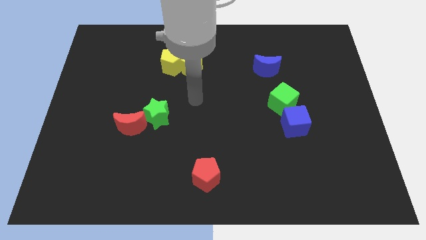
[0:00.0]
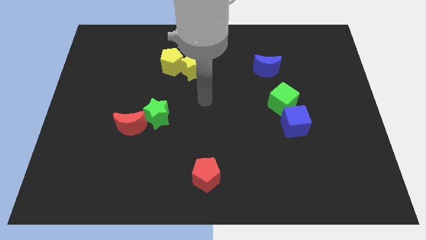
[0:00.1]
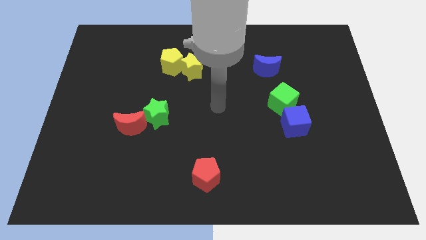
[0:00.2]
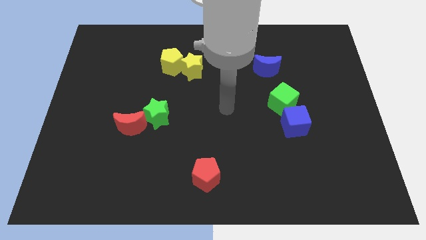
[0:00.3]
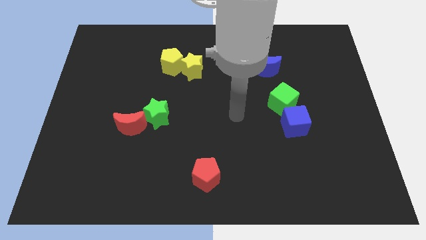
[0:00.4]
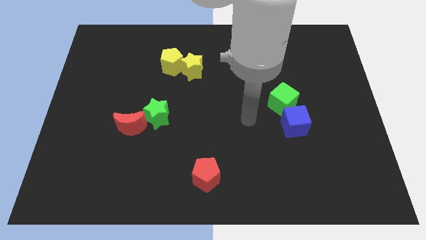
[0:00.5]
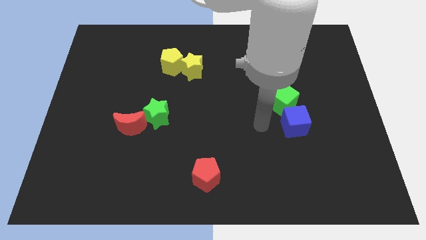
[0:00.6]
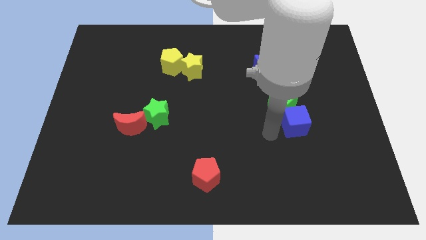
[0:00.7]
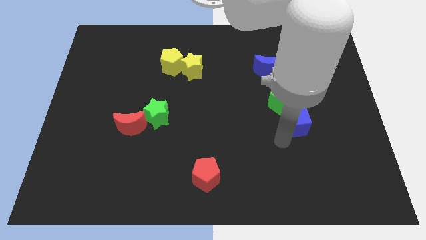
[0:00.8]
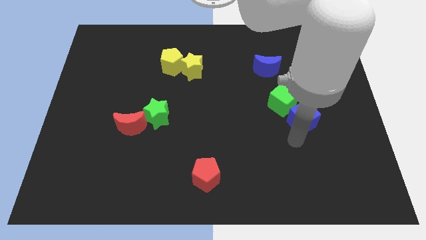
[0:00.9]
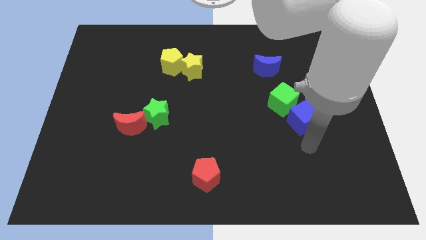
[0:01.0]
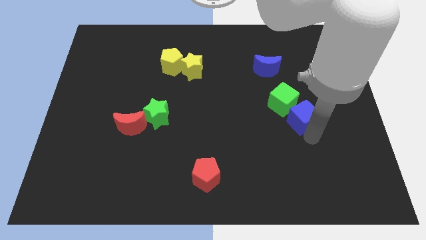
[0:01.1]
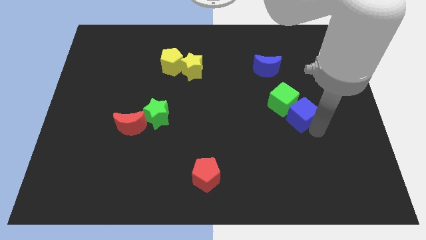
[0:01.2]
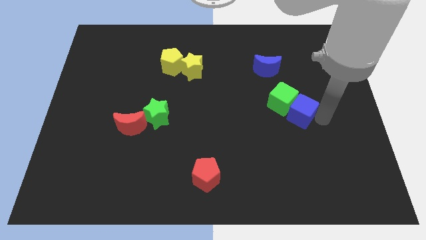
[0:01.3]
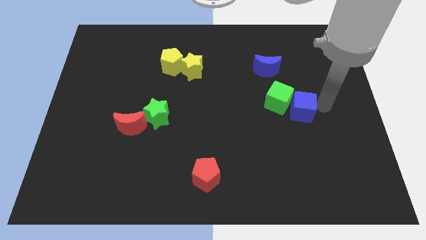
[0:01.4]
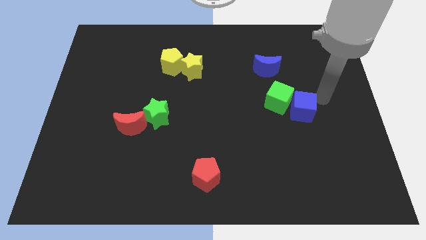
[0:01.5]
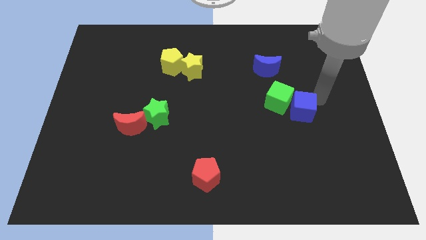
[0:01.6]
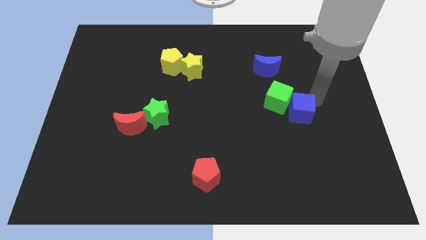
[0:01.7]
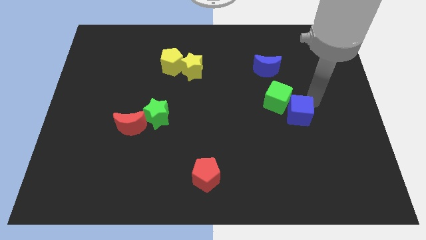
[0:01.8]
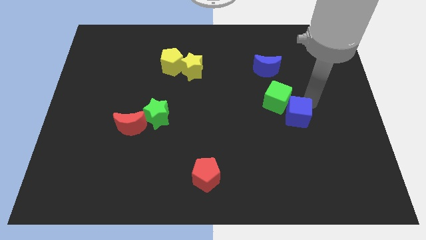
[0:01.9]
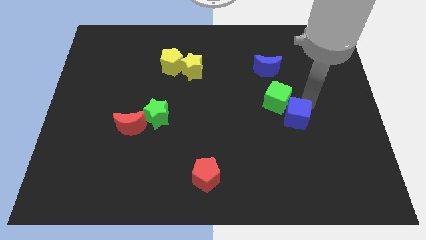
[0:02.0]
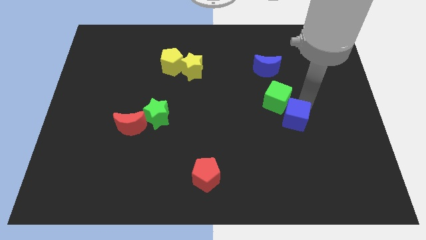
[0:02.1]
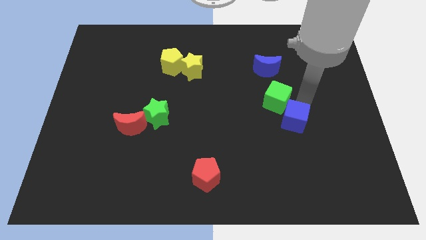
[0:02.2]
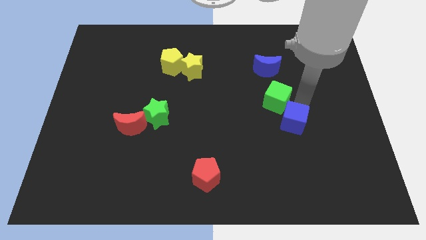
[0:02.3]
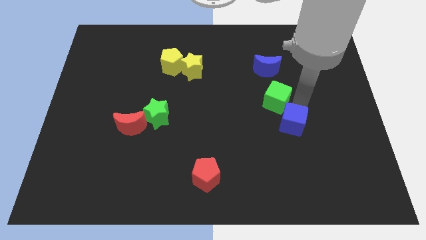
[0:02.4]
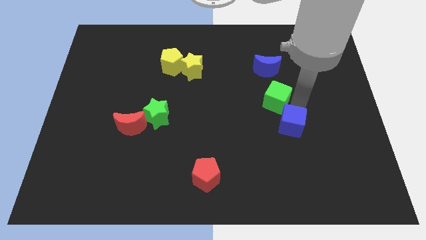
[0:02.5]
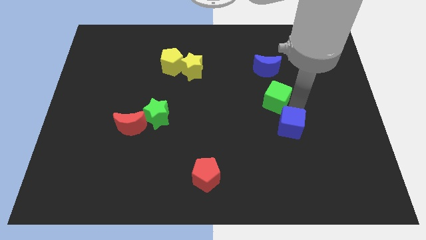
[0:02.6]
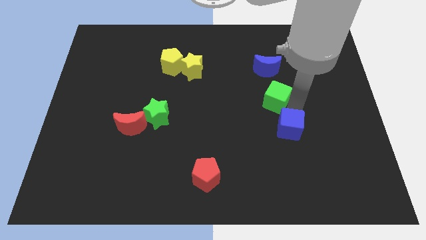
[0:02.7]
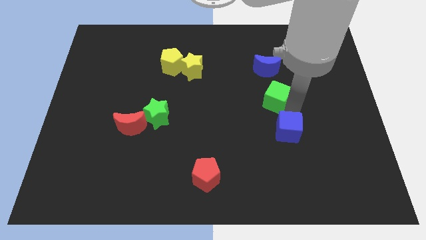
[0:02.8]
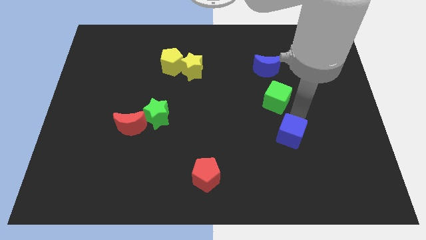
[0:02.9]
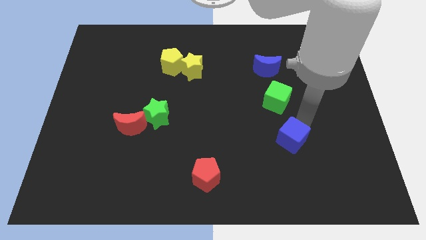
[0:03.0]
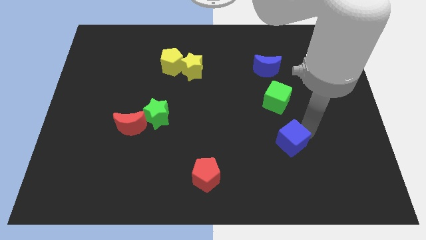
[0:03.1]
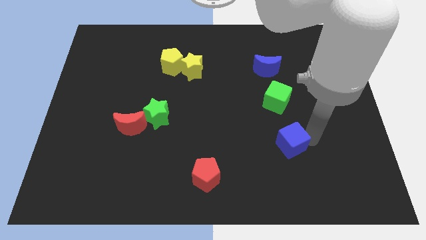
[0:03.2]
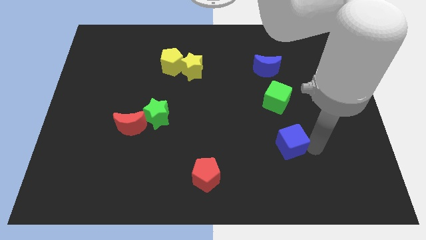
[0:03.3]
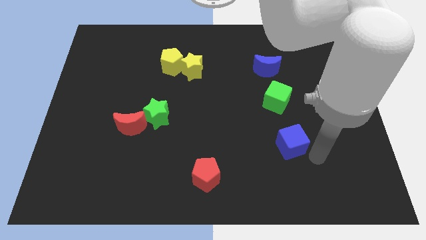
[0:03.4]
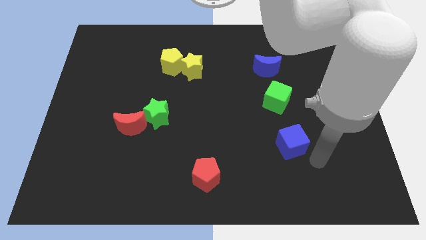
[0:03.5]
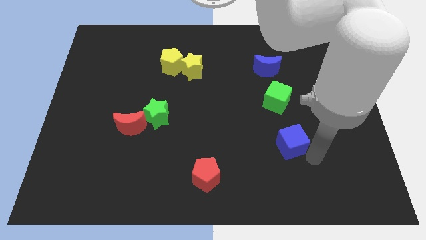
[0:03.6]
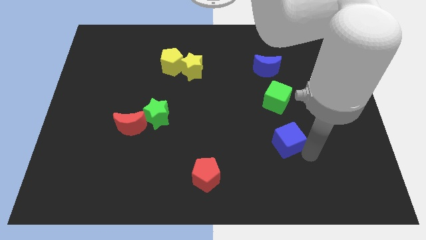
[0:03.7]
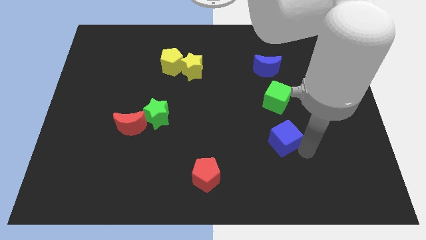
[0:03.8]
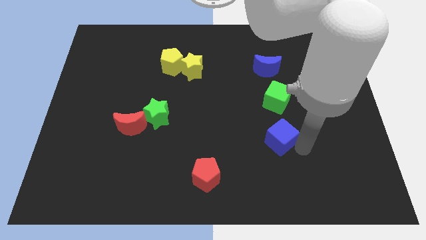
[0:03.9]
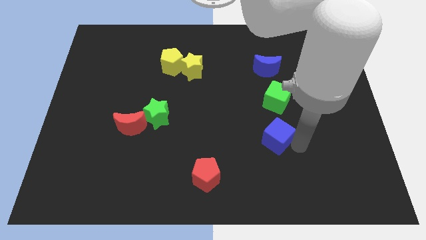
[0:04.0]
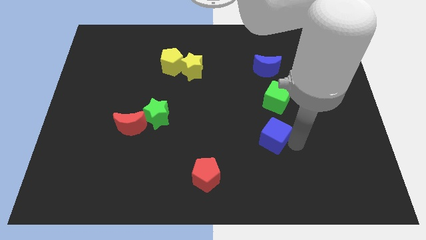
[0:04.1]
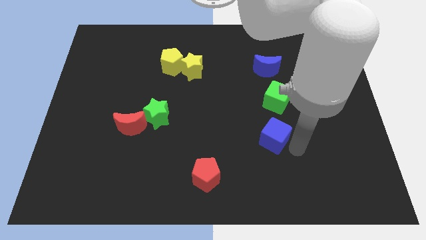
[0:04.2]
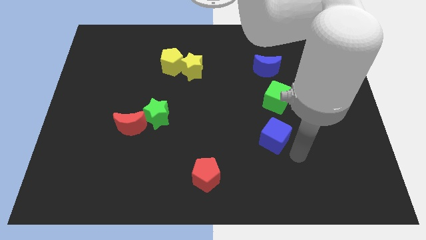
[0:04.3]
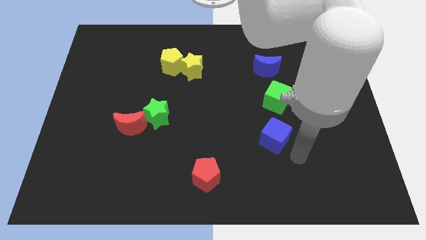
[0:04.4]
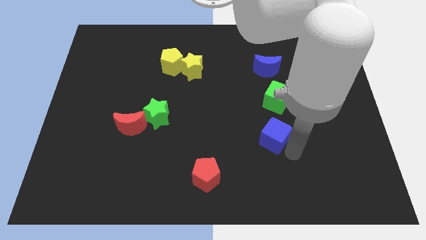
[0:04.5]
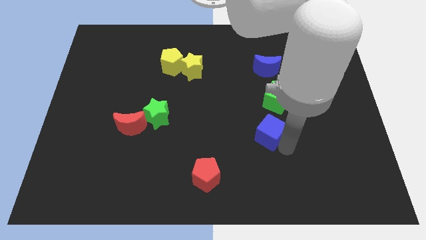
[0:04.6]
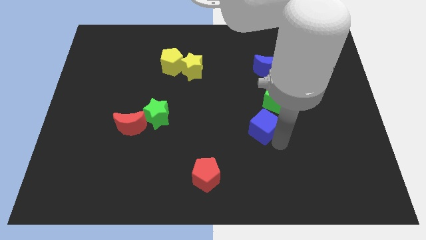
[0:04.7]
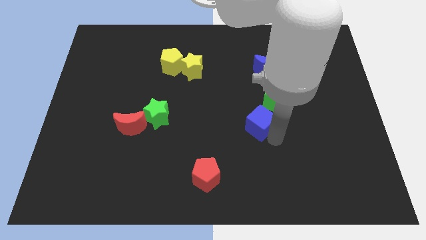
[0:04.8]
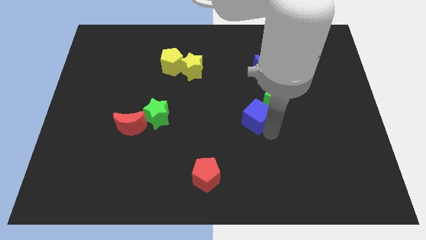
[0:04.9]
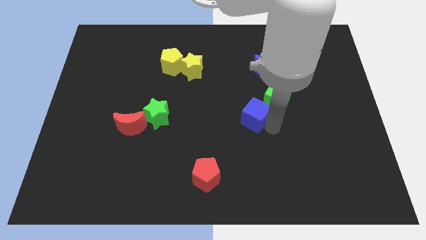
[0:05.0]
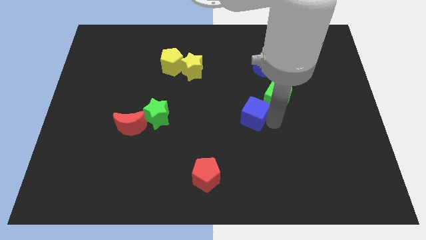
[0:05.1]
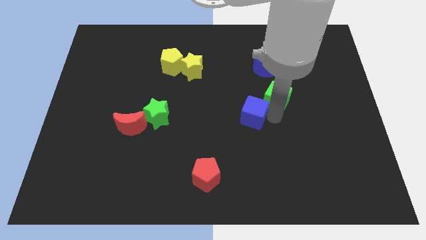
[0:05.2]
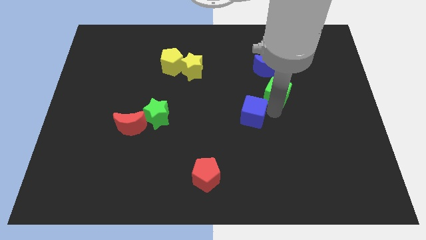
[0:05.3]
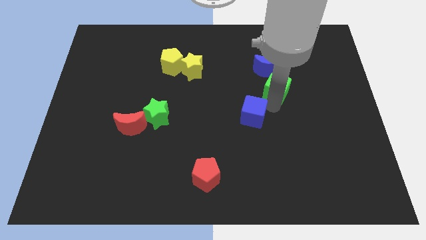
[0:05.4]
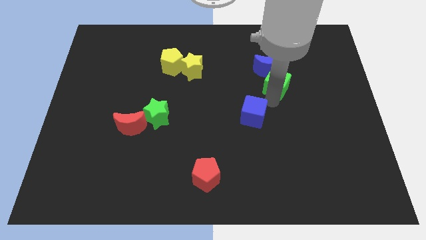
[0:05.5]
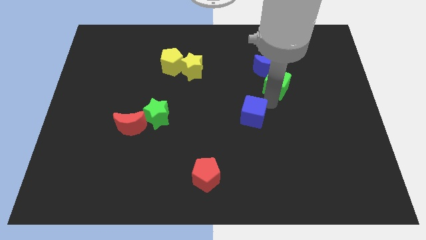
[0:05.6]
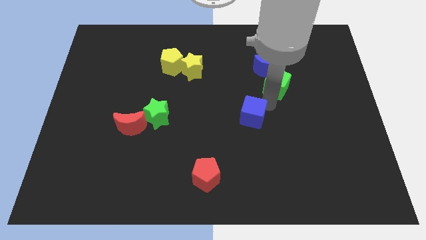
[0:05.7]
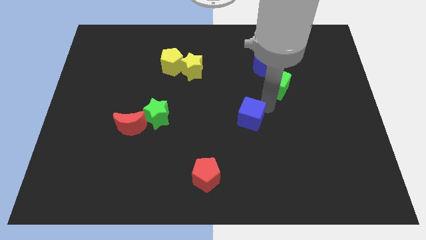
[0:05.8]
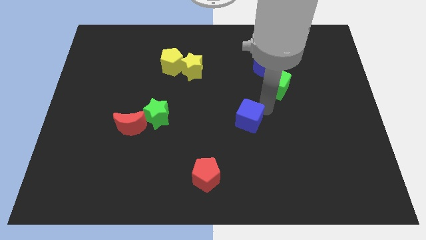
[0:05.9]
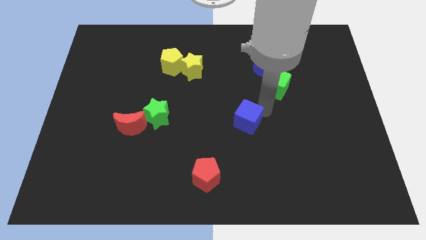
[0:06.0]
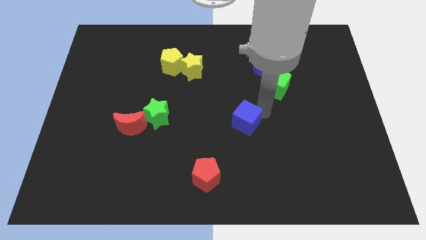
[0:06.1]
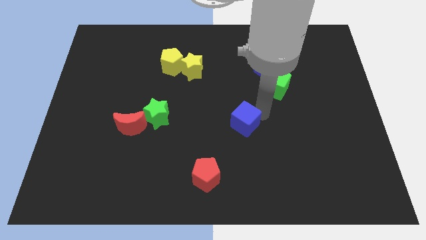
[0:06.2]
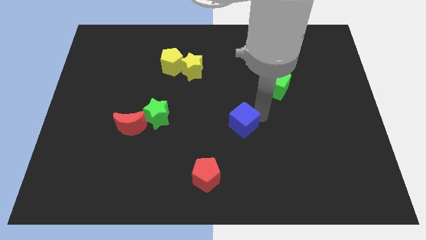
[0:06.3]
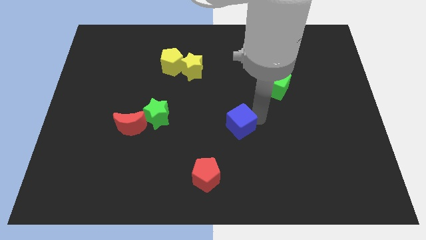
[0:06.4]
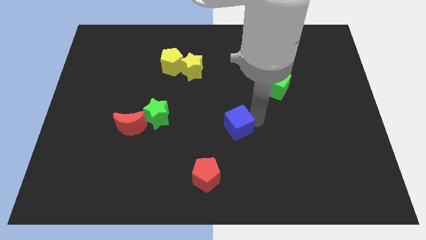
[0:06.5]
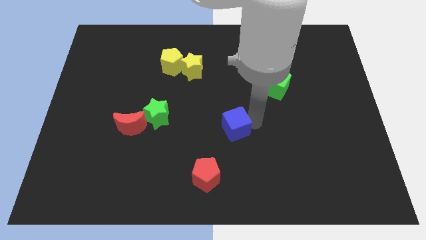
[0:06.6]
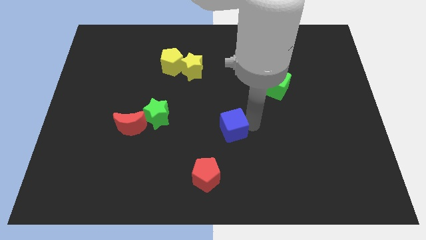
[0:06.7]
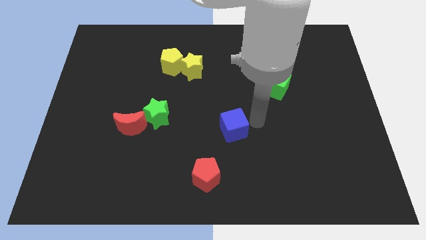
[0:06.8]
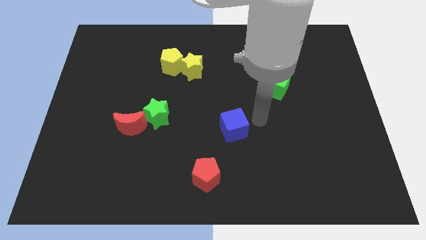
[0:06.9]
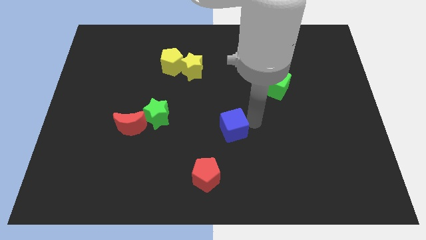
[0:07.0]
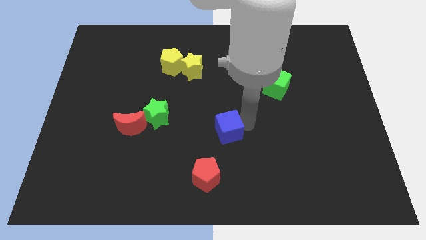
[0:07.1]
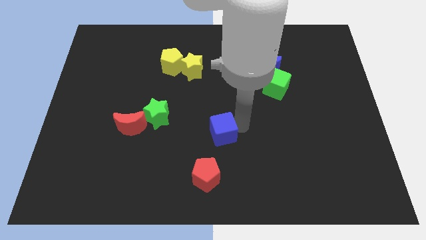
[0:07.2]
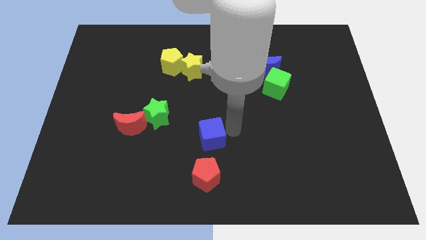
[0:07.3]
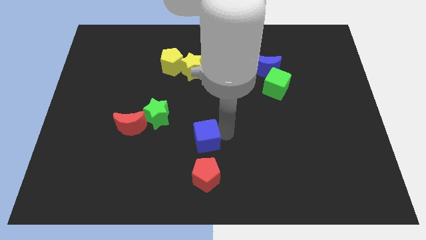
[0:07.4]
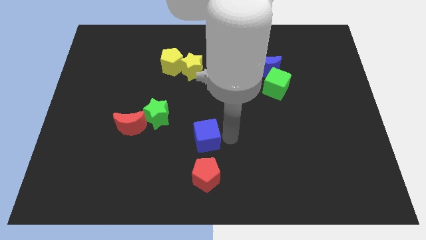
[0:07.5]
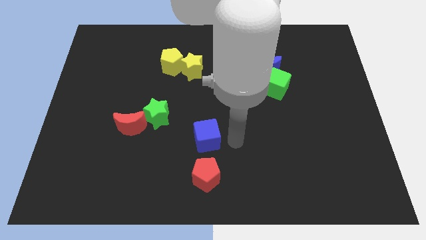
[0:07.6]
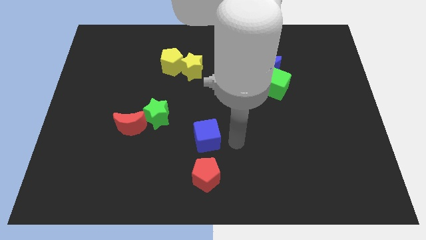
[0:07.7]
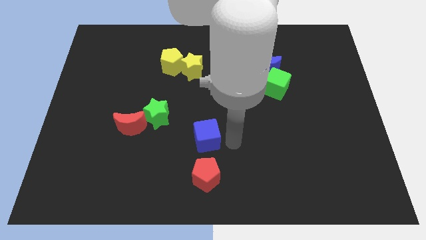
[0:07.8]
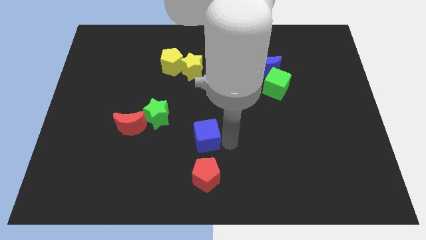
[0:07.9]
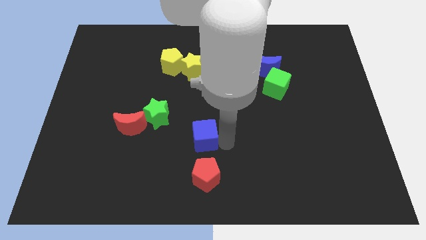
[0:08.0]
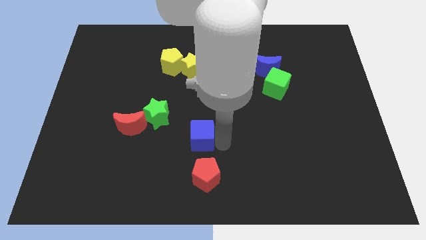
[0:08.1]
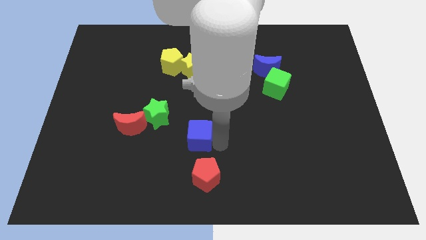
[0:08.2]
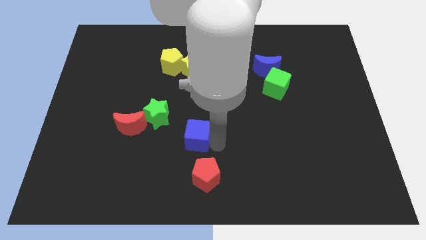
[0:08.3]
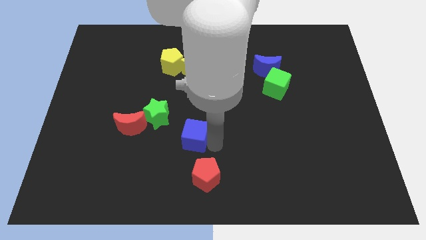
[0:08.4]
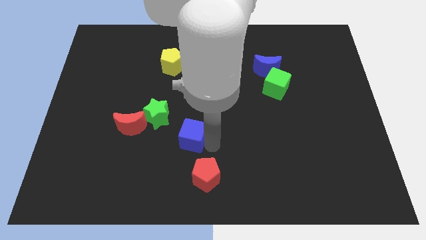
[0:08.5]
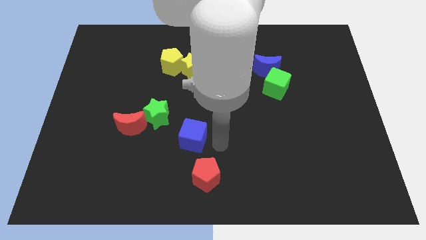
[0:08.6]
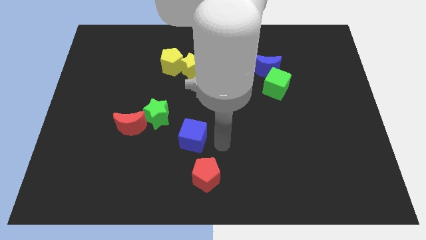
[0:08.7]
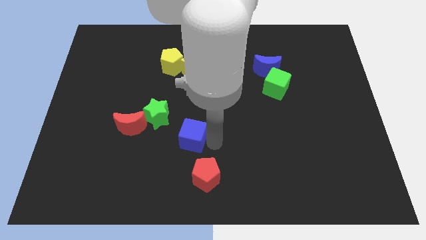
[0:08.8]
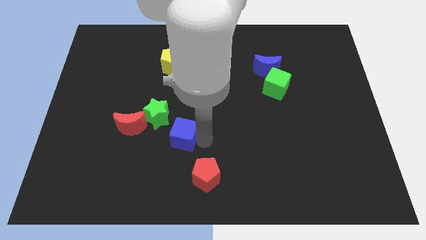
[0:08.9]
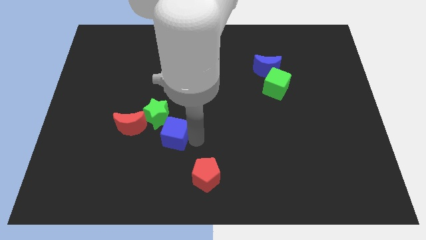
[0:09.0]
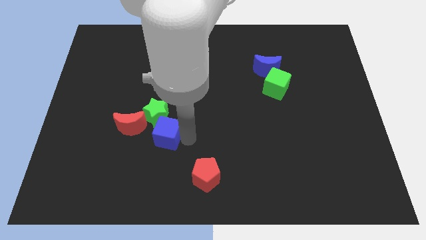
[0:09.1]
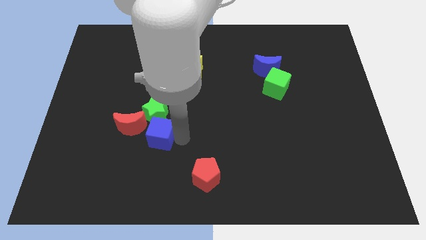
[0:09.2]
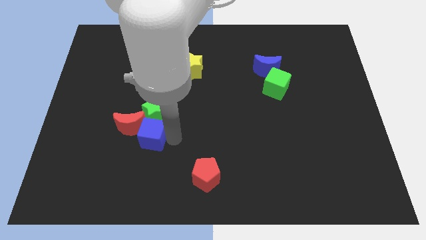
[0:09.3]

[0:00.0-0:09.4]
push the blue cube next to the red moon
